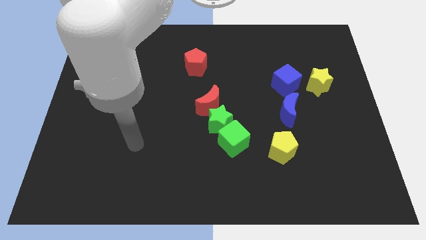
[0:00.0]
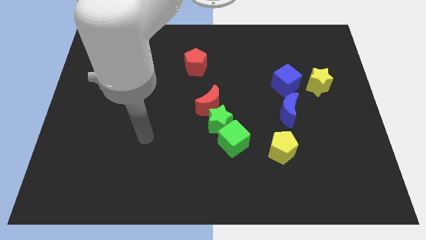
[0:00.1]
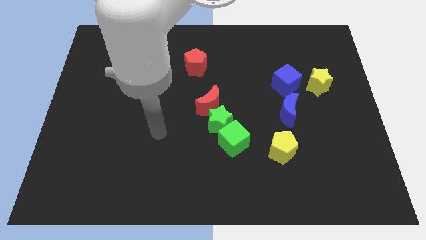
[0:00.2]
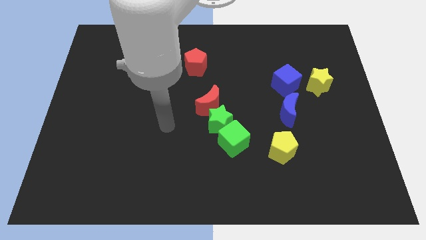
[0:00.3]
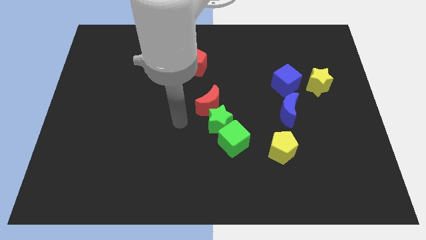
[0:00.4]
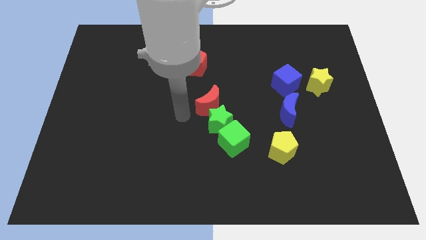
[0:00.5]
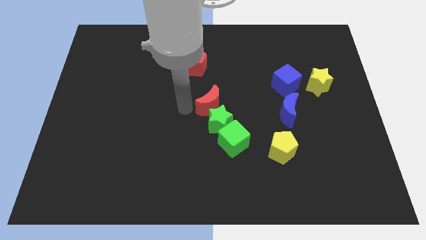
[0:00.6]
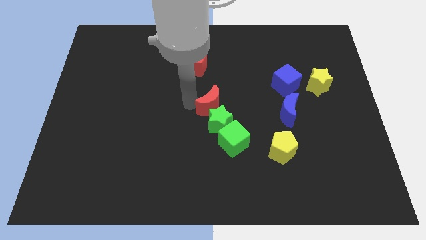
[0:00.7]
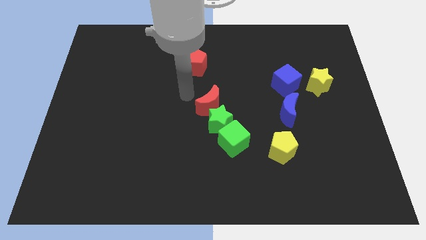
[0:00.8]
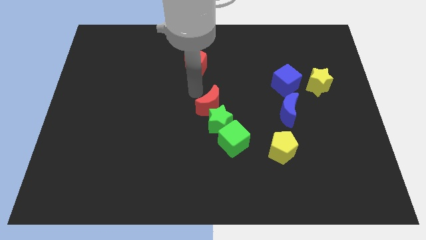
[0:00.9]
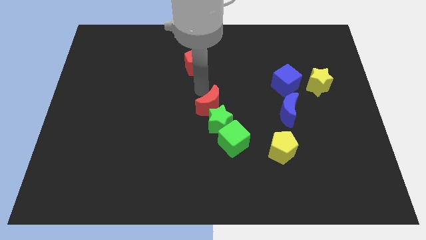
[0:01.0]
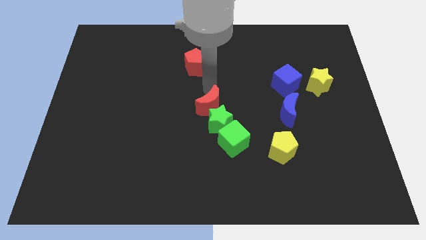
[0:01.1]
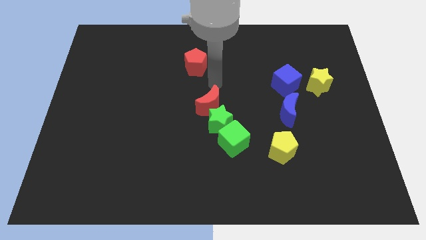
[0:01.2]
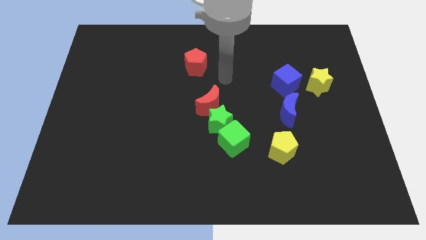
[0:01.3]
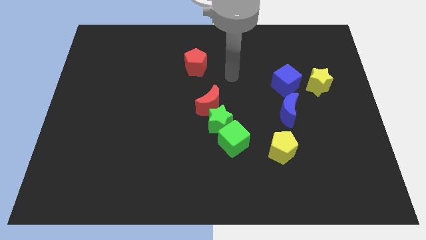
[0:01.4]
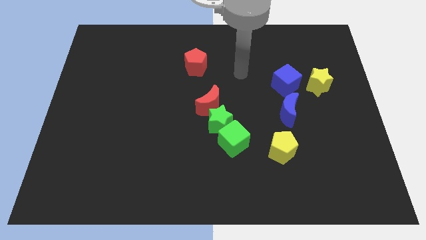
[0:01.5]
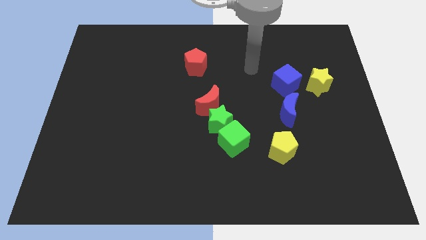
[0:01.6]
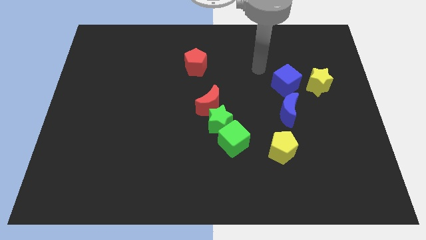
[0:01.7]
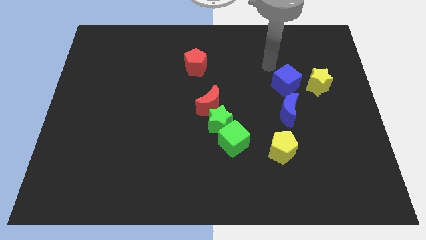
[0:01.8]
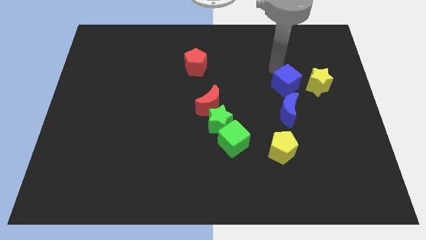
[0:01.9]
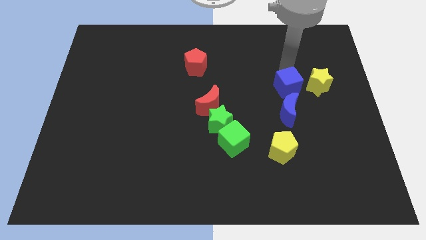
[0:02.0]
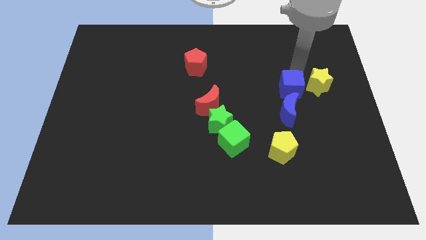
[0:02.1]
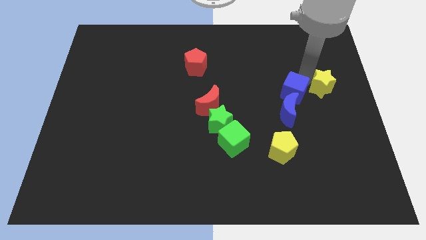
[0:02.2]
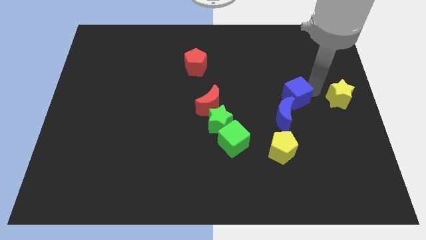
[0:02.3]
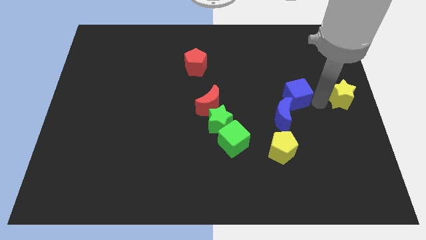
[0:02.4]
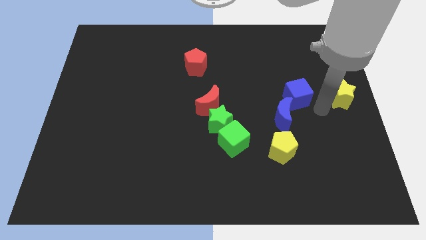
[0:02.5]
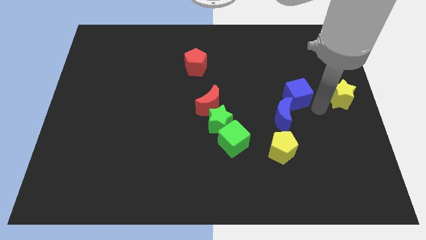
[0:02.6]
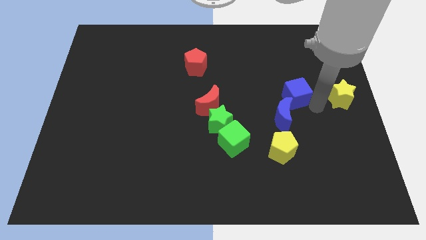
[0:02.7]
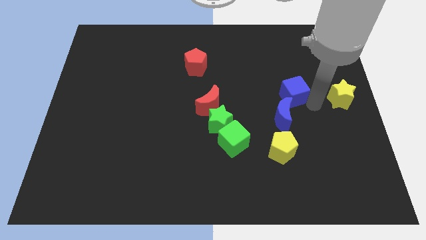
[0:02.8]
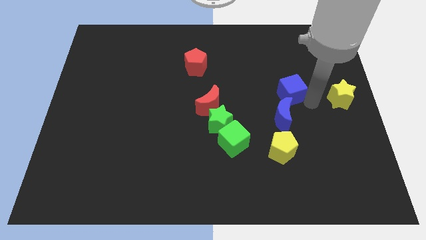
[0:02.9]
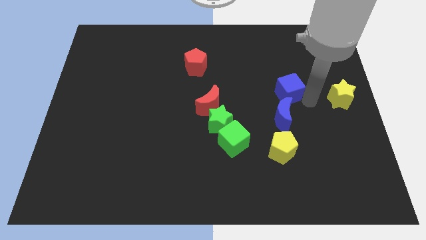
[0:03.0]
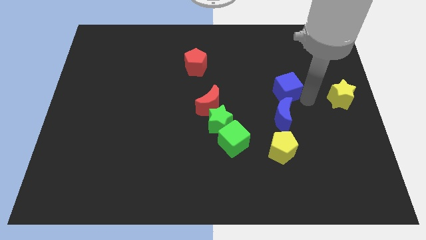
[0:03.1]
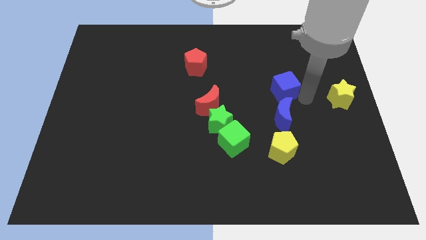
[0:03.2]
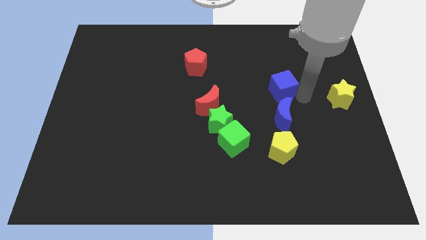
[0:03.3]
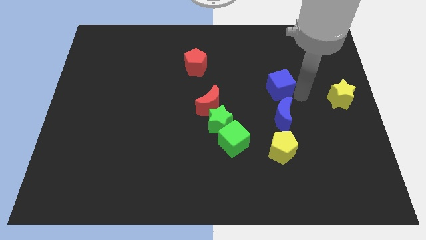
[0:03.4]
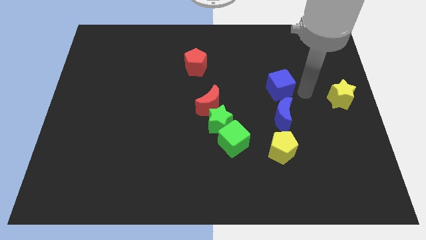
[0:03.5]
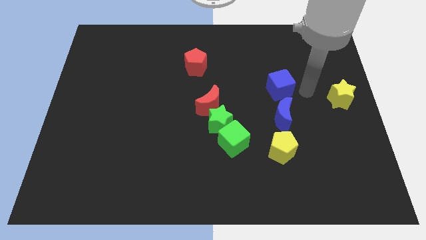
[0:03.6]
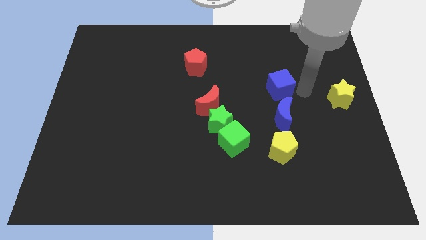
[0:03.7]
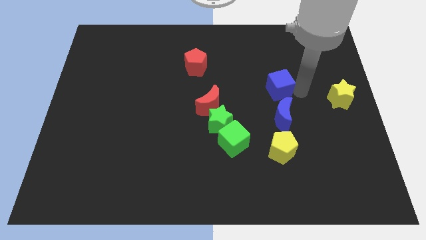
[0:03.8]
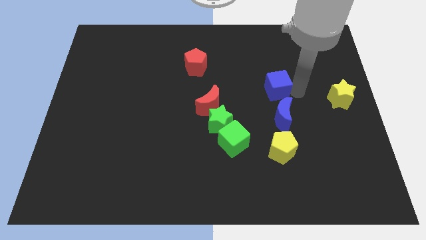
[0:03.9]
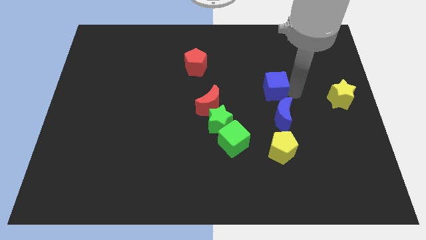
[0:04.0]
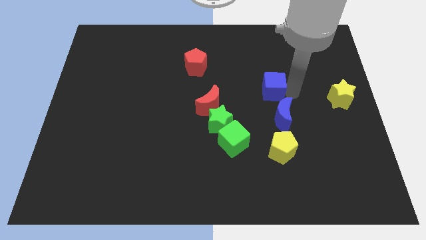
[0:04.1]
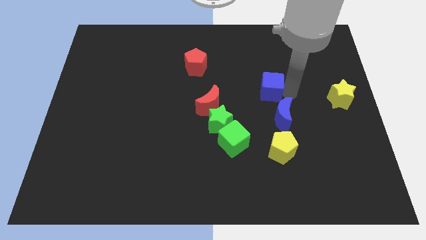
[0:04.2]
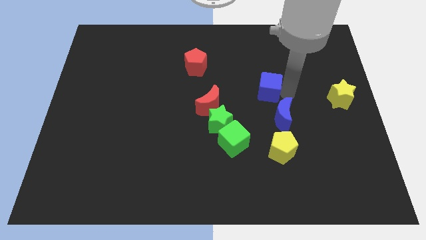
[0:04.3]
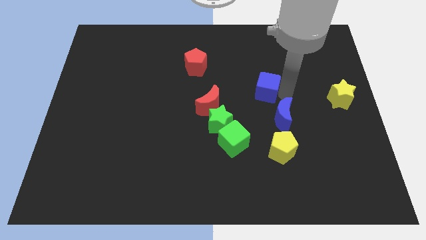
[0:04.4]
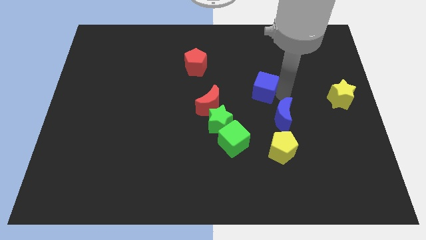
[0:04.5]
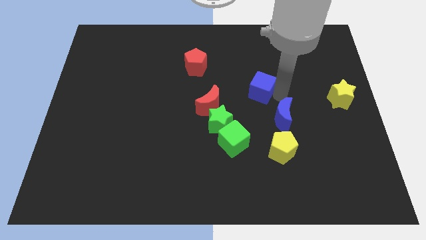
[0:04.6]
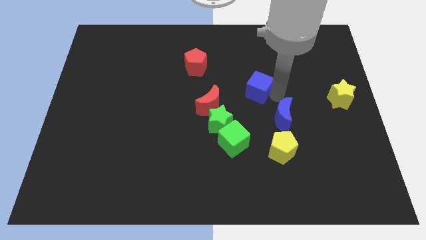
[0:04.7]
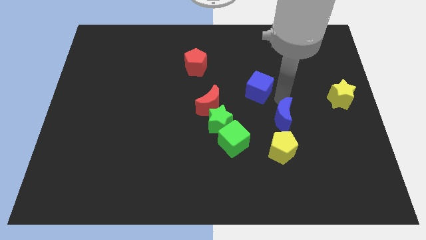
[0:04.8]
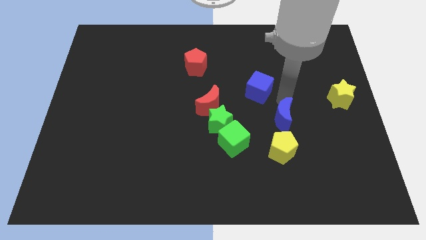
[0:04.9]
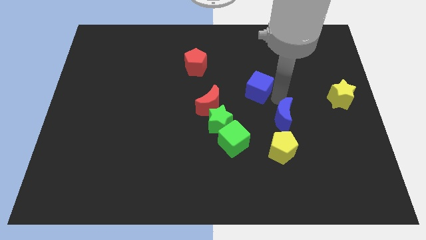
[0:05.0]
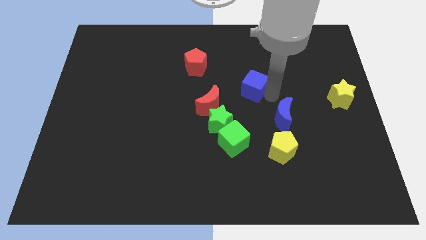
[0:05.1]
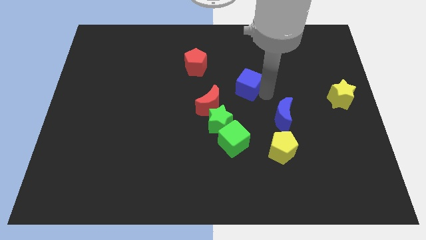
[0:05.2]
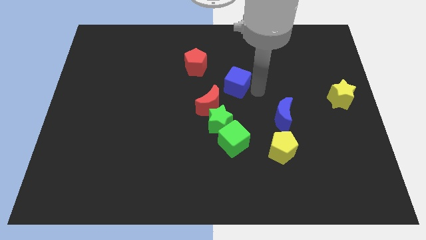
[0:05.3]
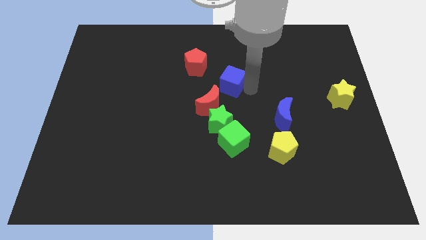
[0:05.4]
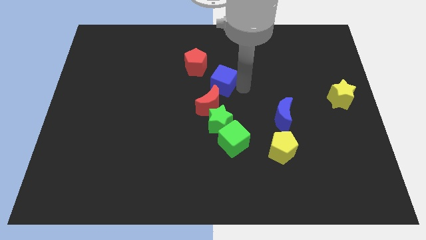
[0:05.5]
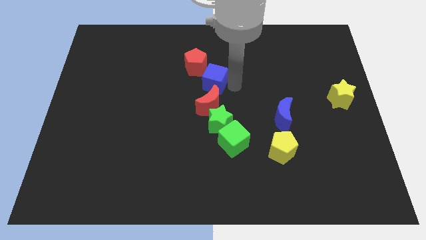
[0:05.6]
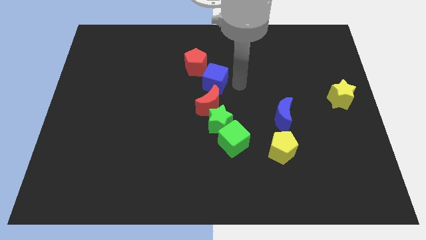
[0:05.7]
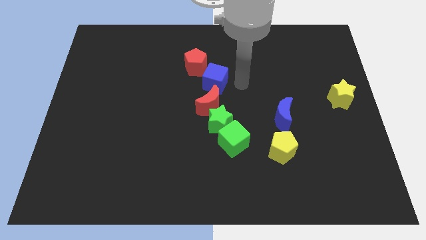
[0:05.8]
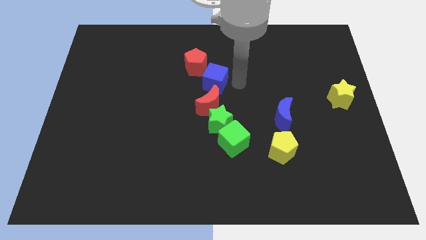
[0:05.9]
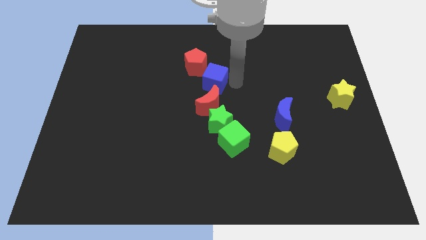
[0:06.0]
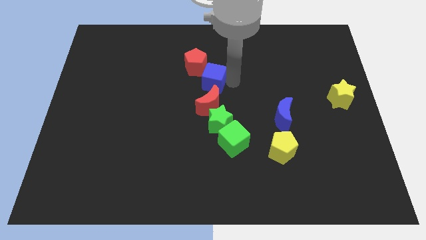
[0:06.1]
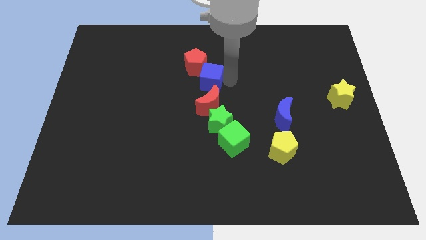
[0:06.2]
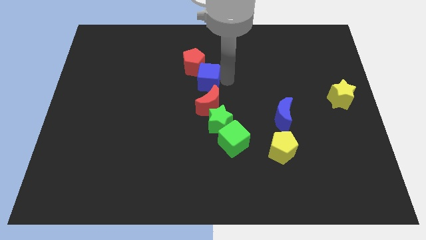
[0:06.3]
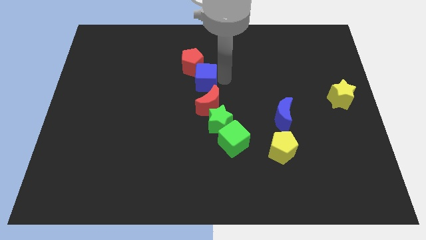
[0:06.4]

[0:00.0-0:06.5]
push the blue cube to the left

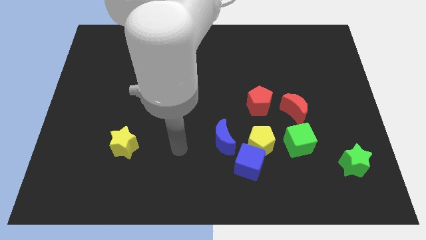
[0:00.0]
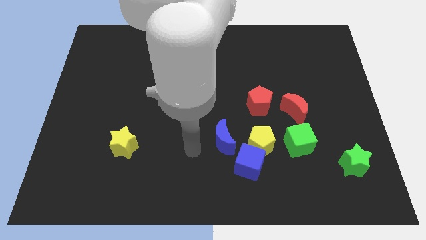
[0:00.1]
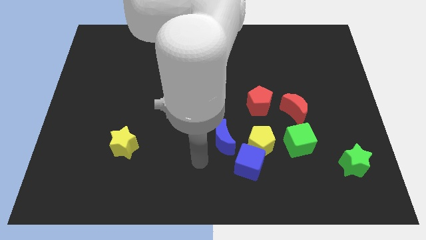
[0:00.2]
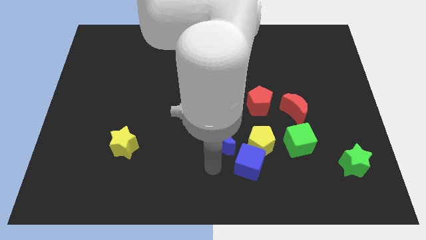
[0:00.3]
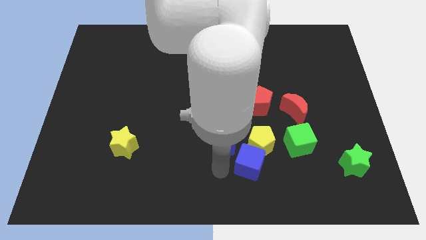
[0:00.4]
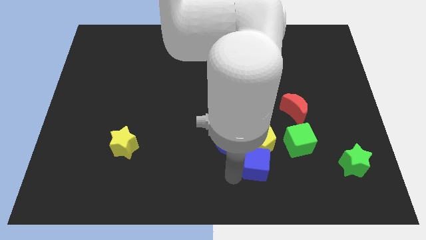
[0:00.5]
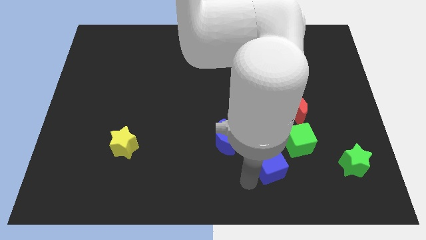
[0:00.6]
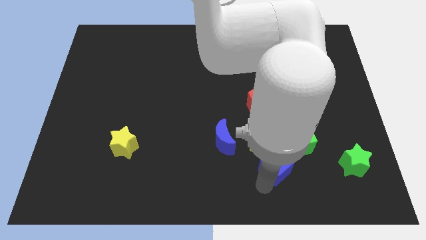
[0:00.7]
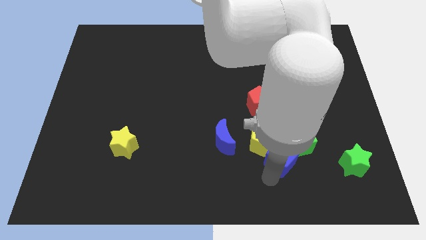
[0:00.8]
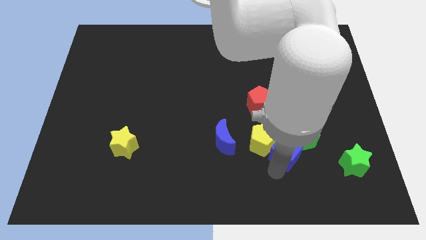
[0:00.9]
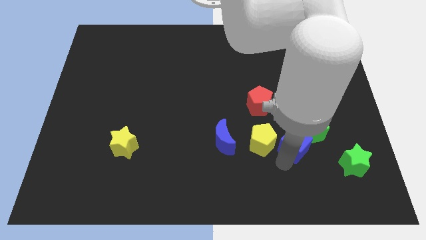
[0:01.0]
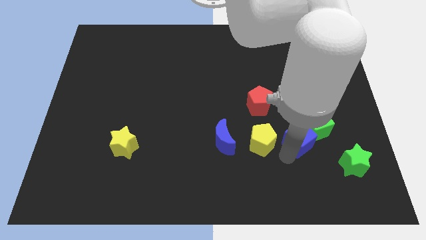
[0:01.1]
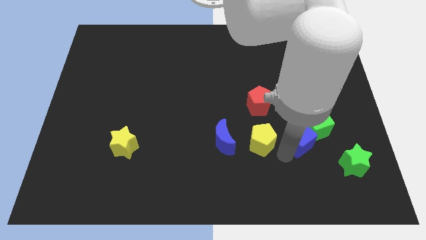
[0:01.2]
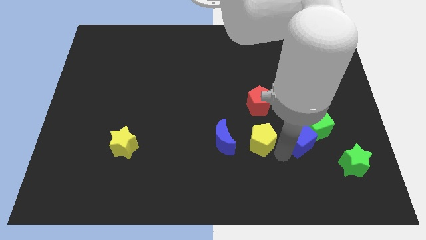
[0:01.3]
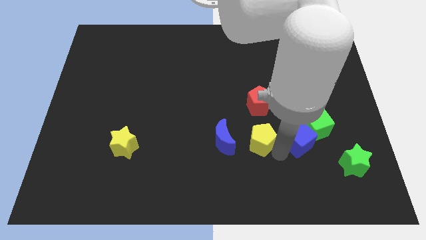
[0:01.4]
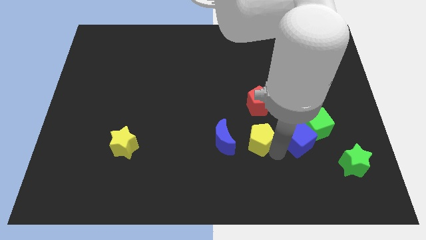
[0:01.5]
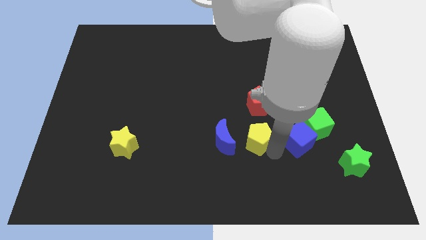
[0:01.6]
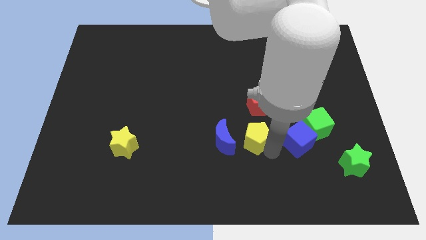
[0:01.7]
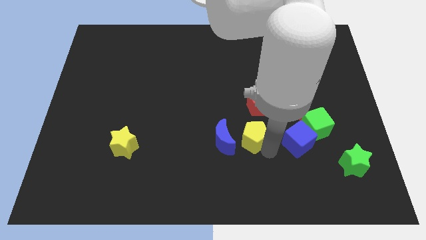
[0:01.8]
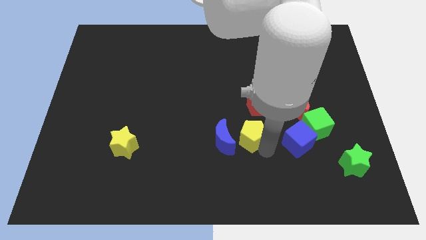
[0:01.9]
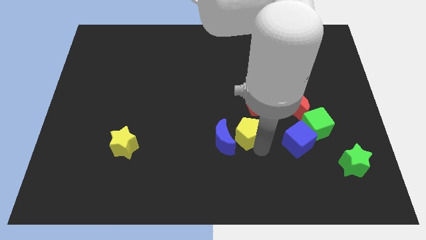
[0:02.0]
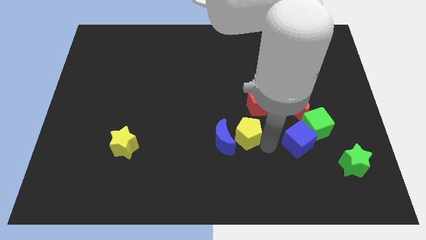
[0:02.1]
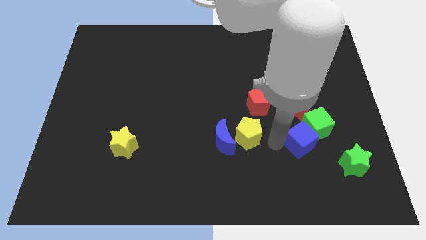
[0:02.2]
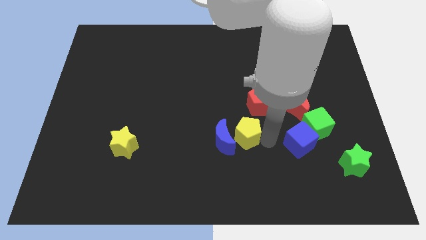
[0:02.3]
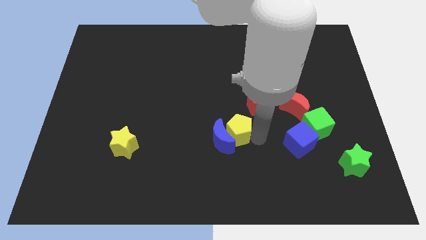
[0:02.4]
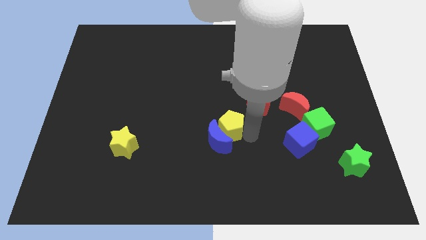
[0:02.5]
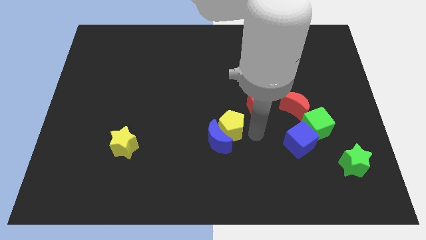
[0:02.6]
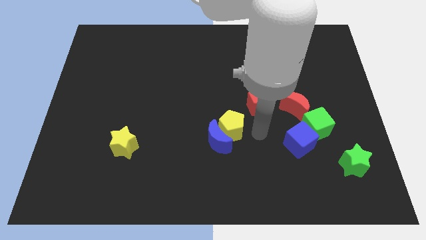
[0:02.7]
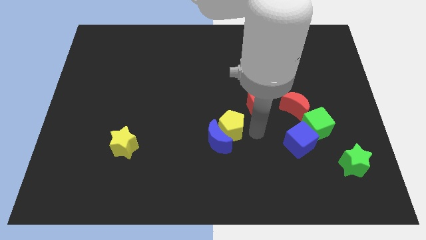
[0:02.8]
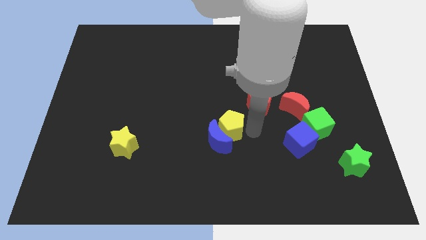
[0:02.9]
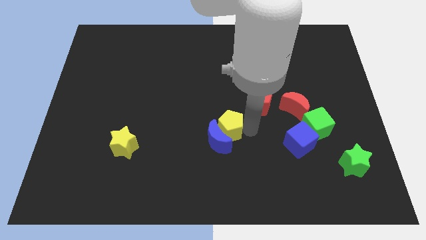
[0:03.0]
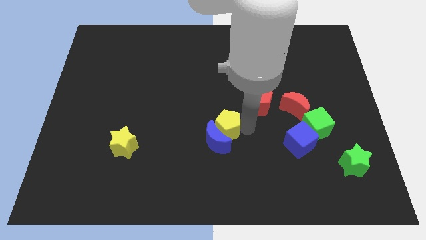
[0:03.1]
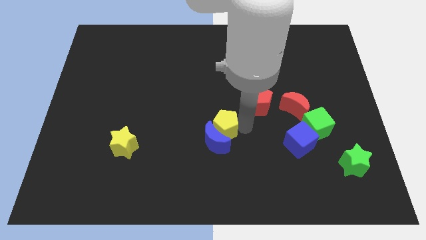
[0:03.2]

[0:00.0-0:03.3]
slightly move the yellow pentagon to the left
